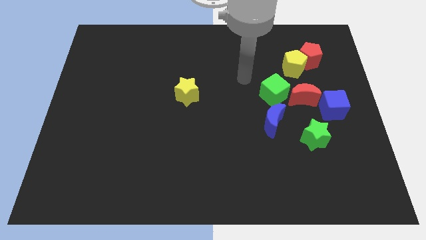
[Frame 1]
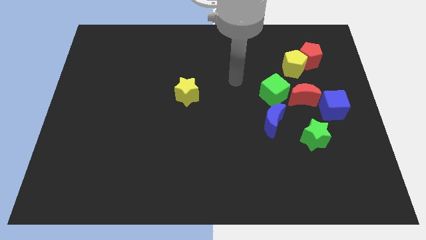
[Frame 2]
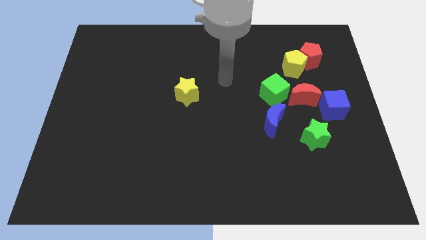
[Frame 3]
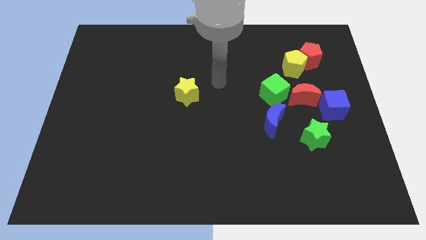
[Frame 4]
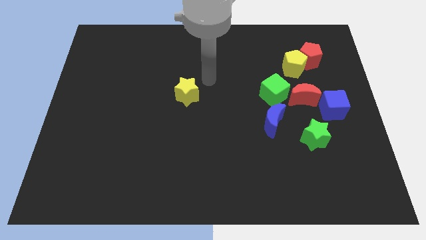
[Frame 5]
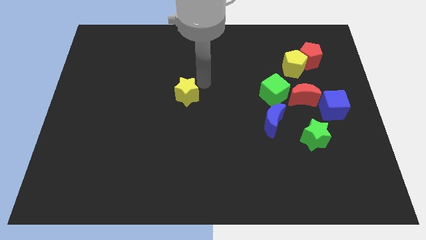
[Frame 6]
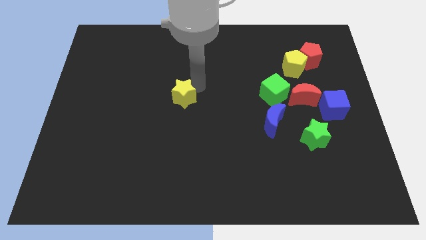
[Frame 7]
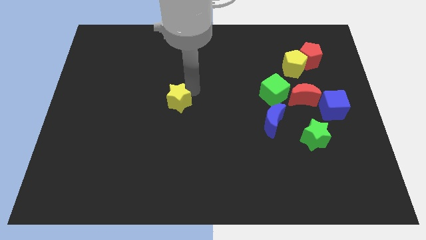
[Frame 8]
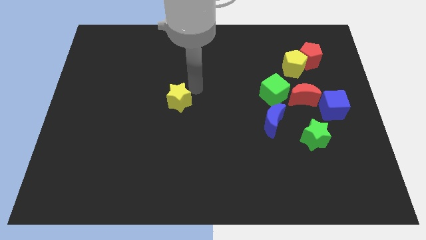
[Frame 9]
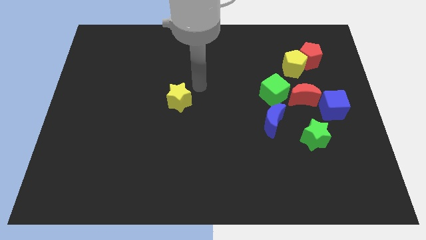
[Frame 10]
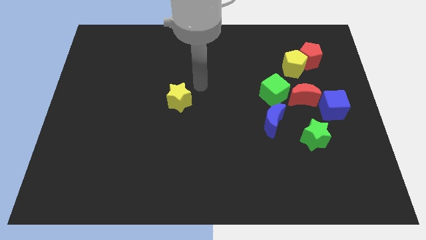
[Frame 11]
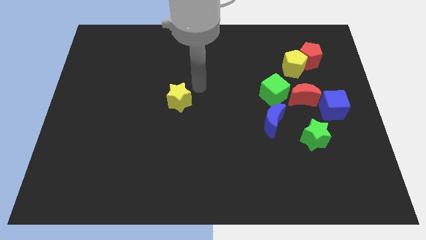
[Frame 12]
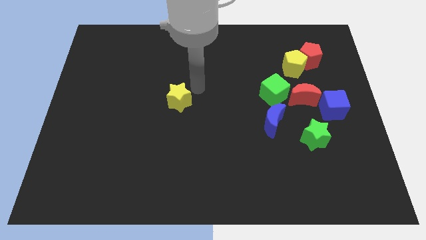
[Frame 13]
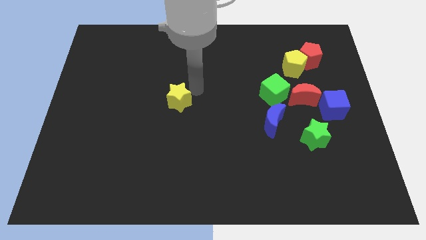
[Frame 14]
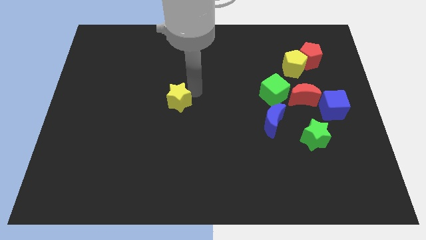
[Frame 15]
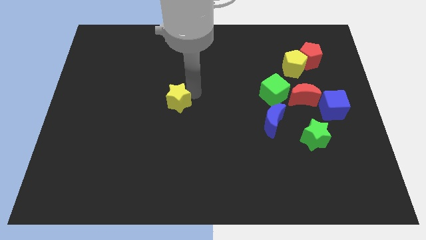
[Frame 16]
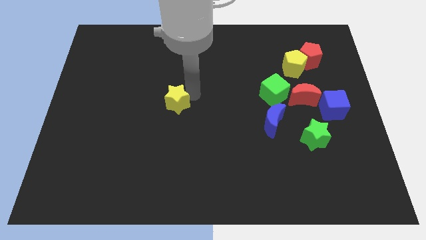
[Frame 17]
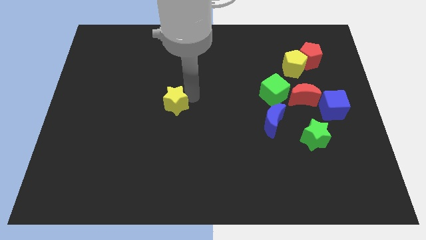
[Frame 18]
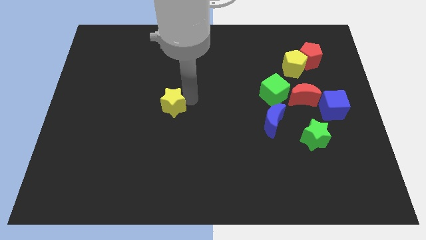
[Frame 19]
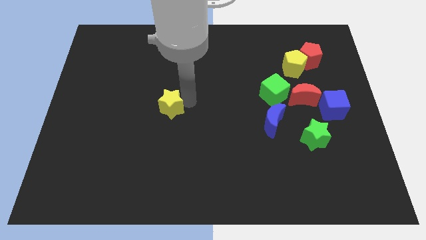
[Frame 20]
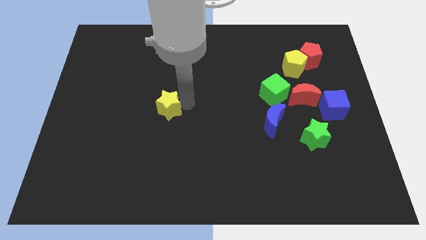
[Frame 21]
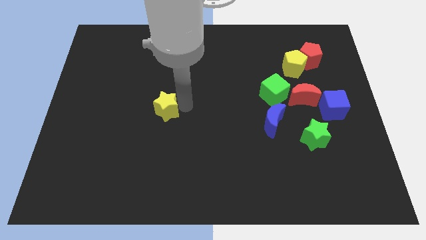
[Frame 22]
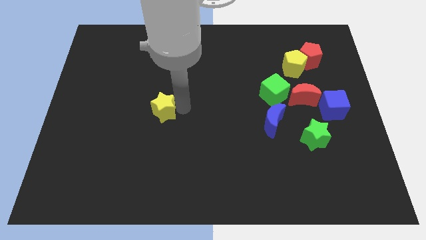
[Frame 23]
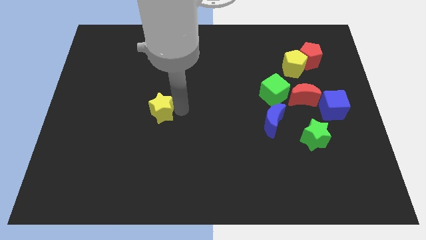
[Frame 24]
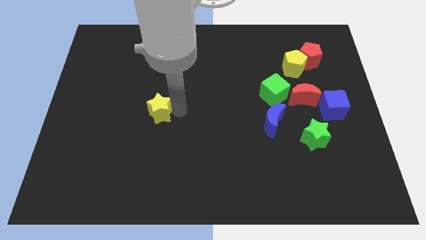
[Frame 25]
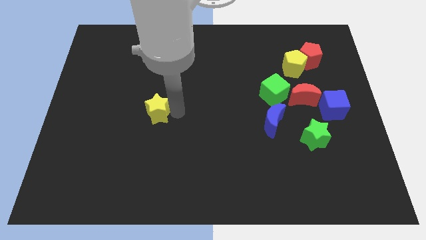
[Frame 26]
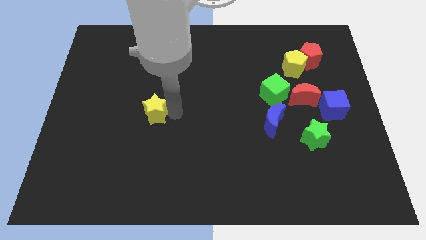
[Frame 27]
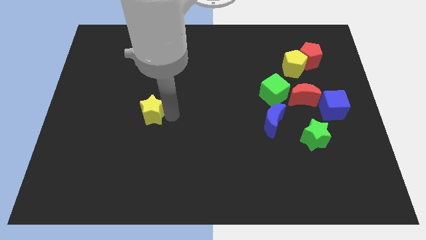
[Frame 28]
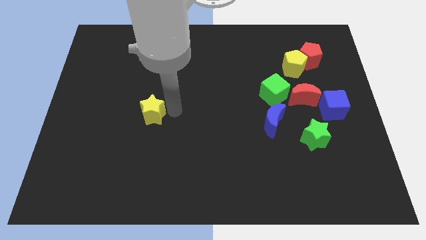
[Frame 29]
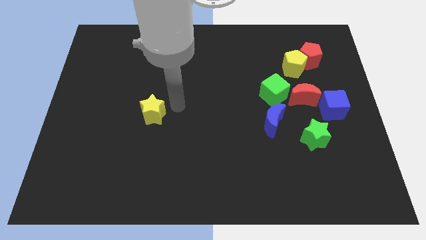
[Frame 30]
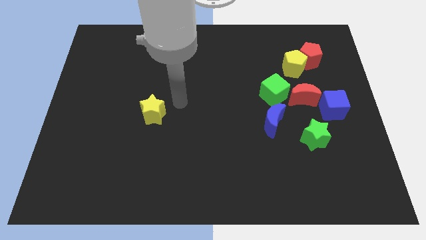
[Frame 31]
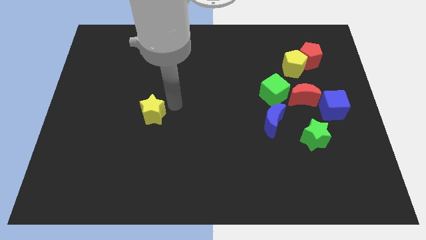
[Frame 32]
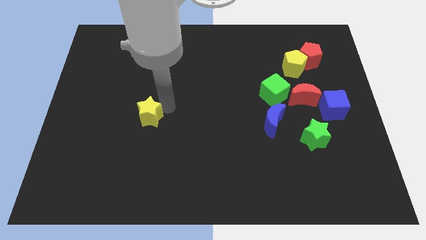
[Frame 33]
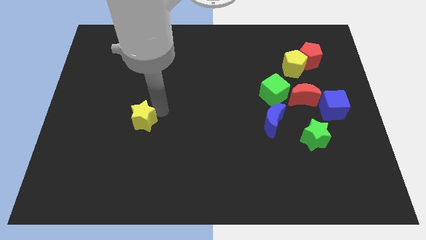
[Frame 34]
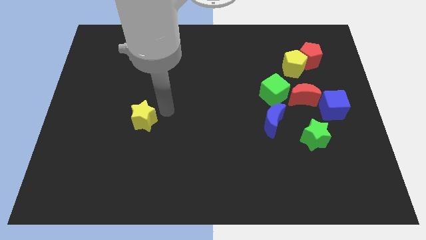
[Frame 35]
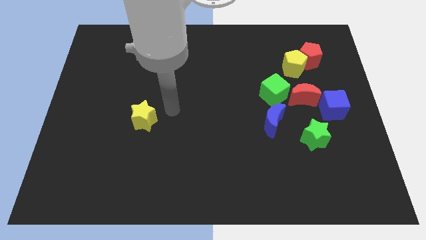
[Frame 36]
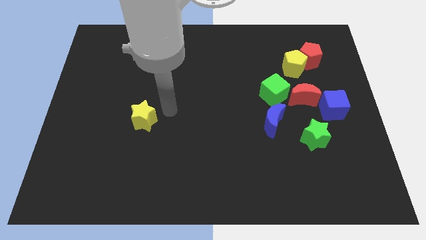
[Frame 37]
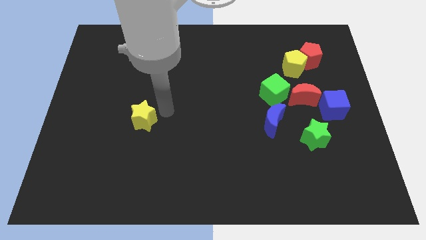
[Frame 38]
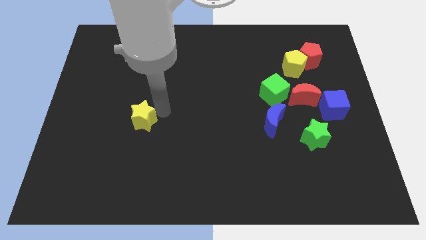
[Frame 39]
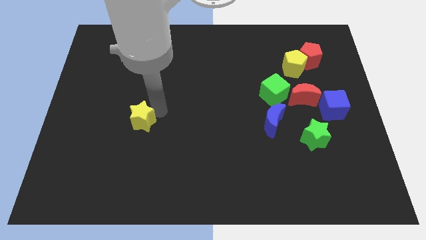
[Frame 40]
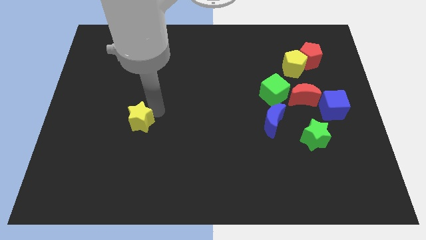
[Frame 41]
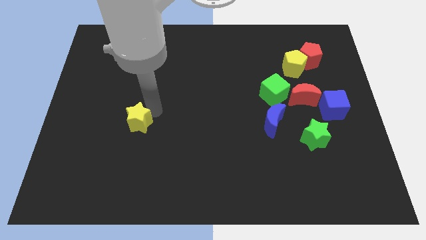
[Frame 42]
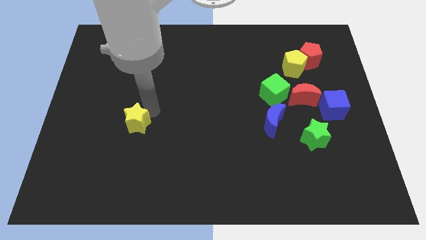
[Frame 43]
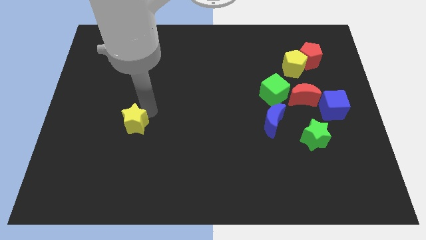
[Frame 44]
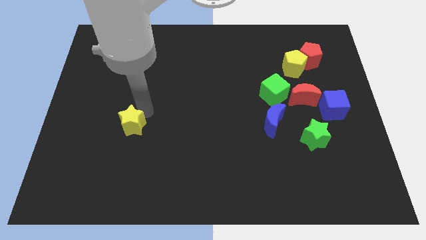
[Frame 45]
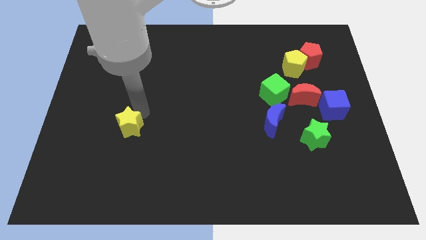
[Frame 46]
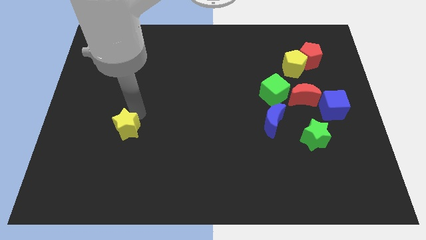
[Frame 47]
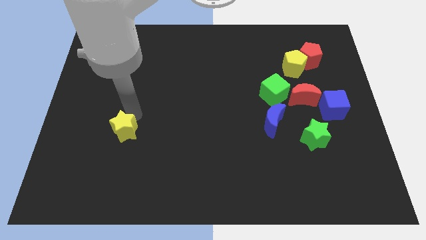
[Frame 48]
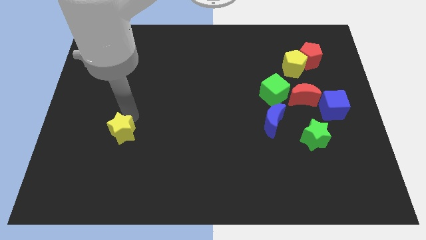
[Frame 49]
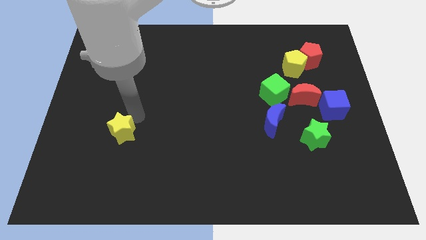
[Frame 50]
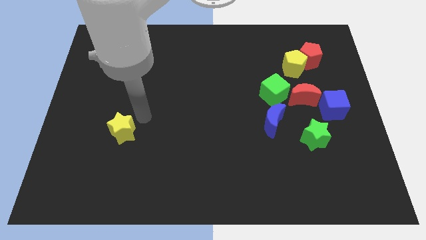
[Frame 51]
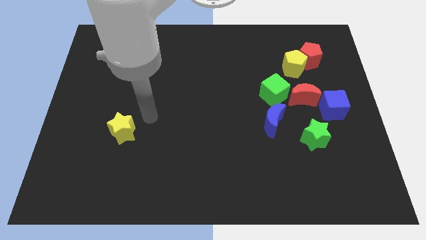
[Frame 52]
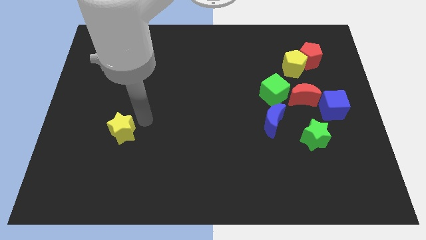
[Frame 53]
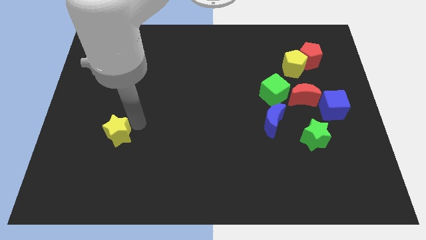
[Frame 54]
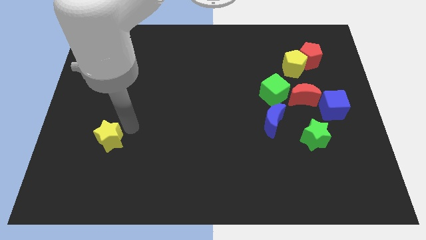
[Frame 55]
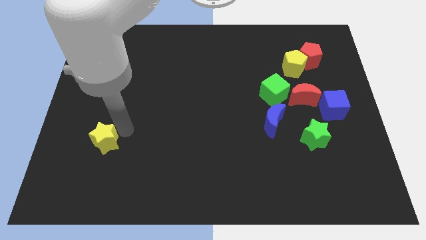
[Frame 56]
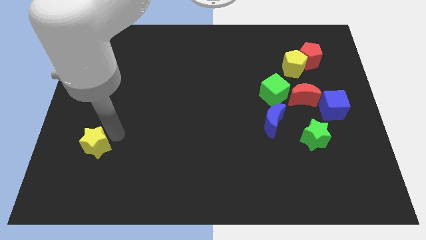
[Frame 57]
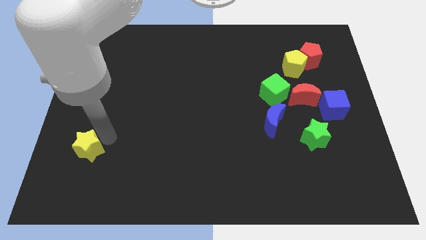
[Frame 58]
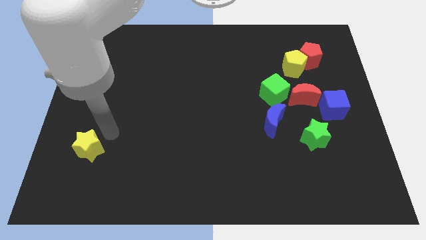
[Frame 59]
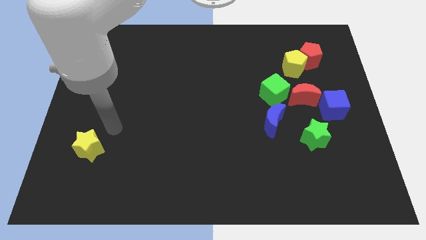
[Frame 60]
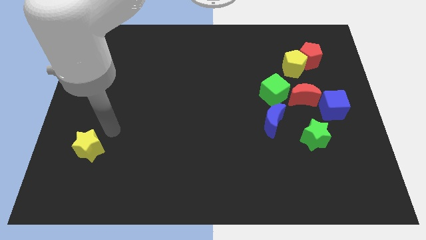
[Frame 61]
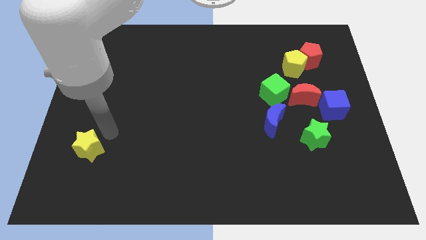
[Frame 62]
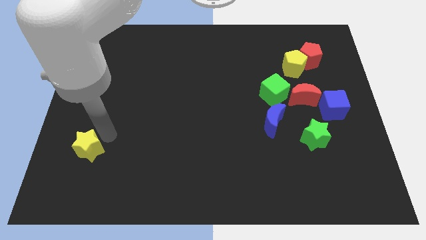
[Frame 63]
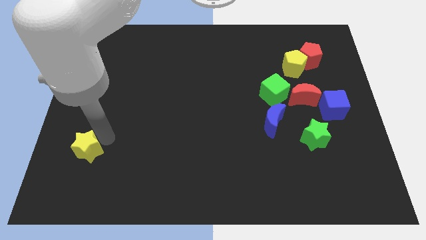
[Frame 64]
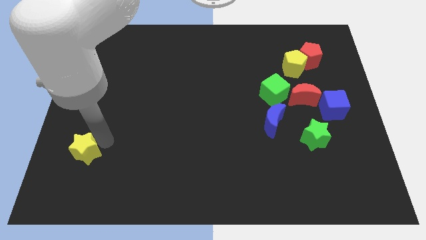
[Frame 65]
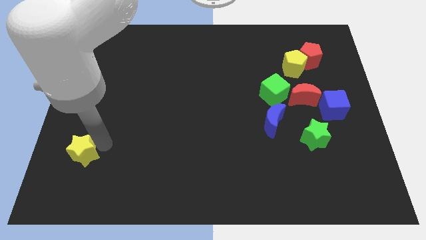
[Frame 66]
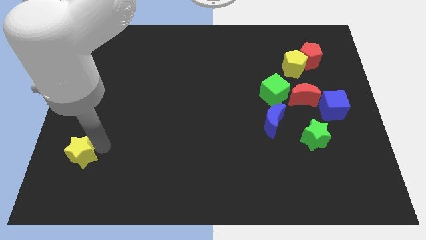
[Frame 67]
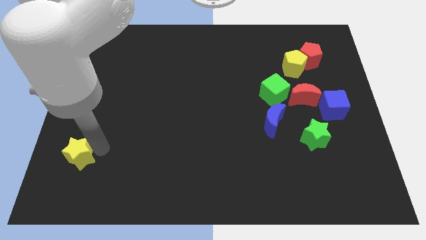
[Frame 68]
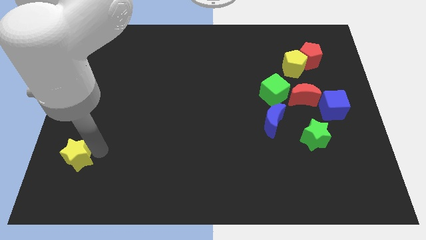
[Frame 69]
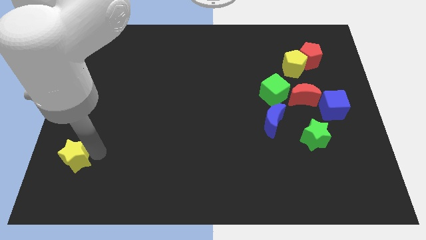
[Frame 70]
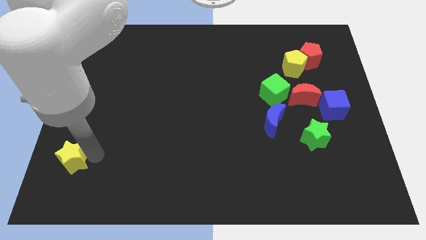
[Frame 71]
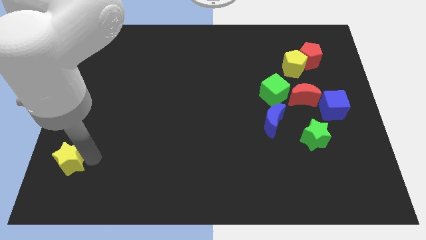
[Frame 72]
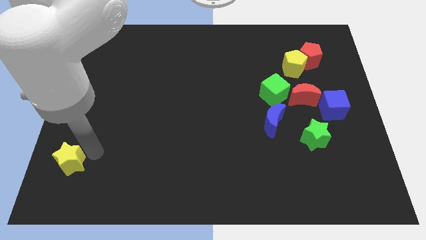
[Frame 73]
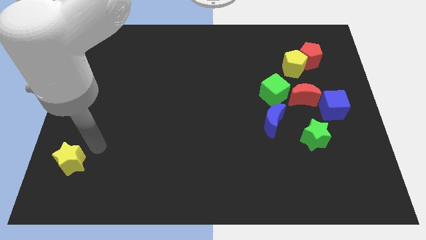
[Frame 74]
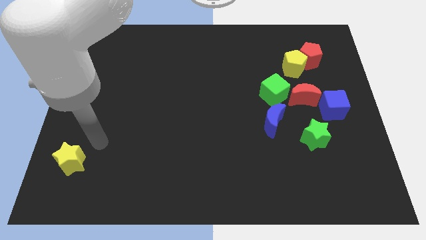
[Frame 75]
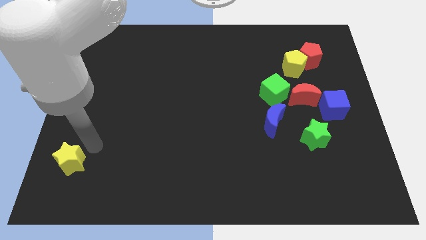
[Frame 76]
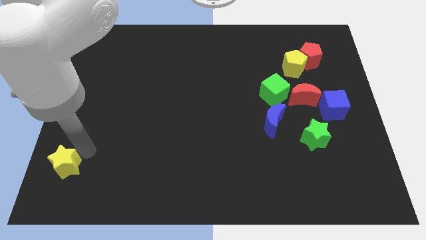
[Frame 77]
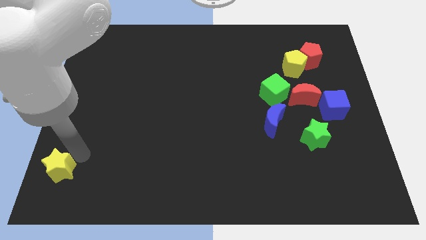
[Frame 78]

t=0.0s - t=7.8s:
push the yellow star to the bottom left of the board
